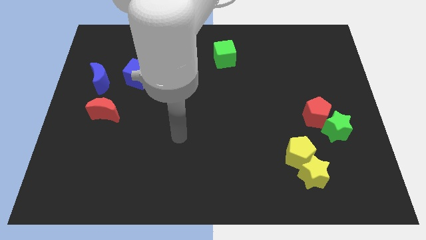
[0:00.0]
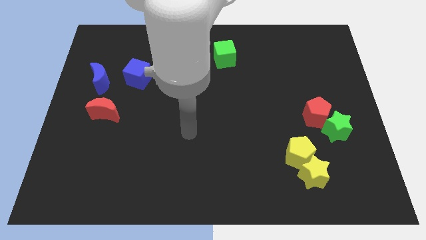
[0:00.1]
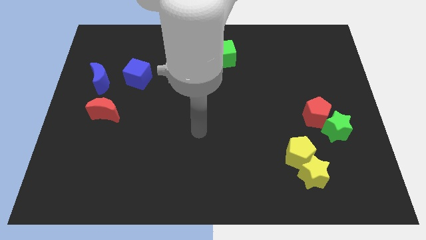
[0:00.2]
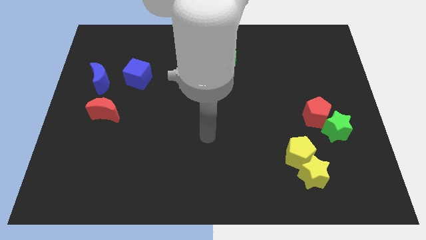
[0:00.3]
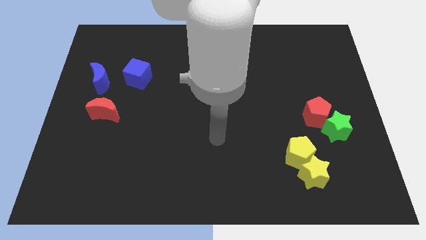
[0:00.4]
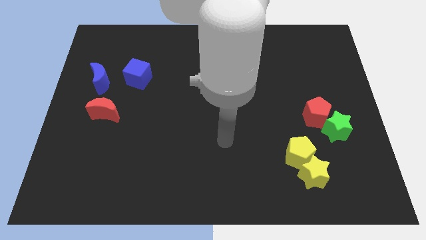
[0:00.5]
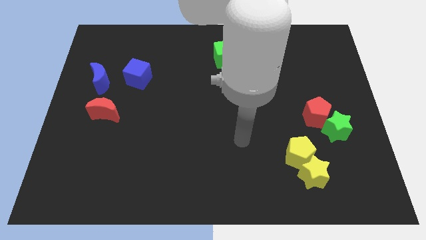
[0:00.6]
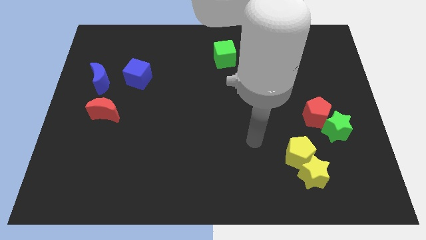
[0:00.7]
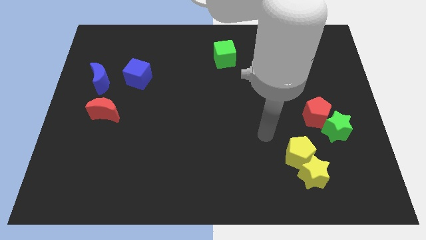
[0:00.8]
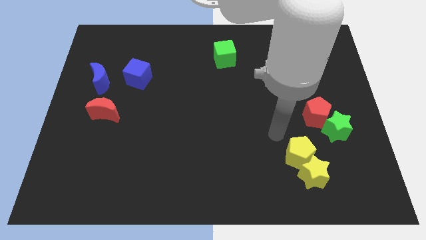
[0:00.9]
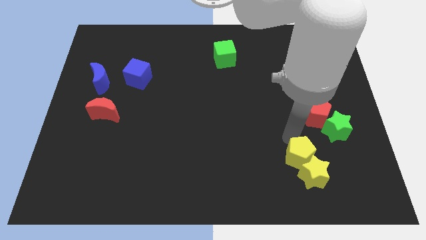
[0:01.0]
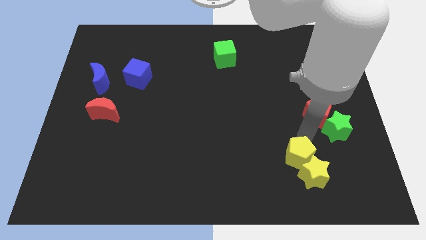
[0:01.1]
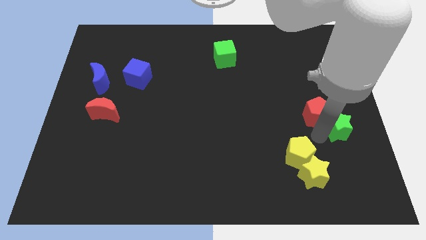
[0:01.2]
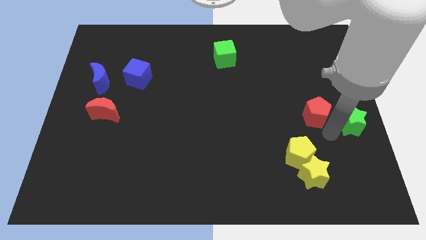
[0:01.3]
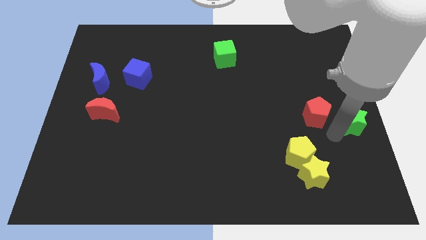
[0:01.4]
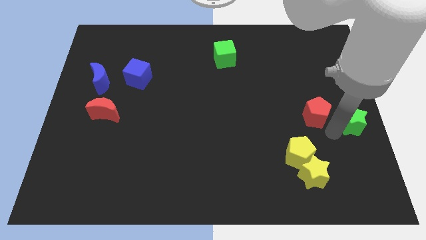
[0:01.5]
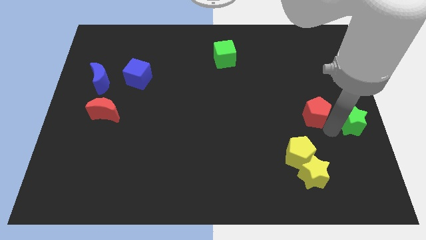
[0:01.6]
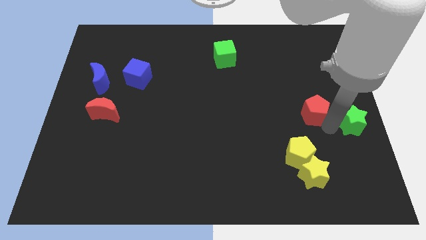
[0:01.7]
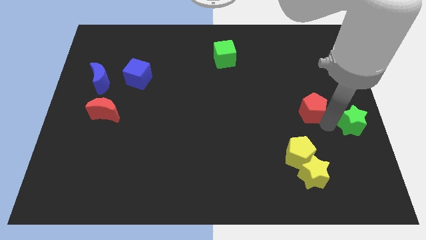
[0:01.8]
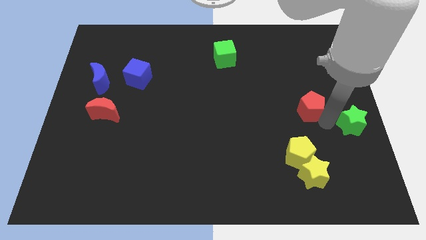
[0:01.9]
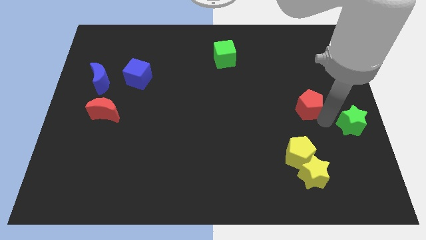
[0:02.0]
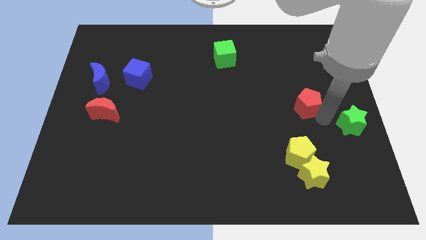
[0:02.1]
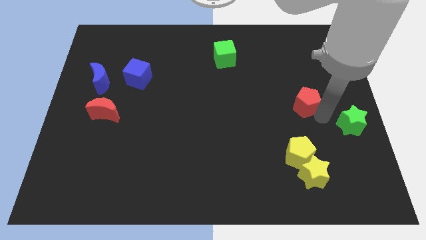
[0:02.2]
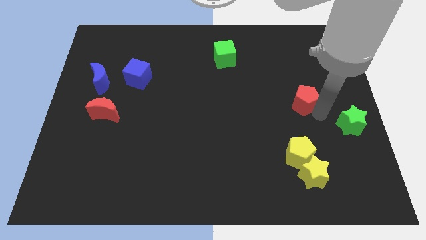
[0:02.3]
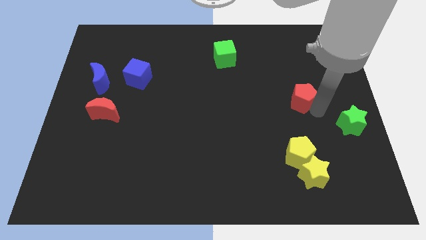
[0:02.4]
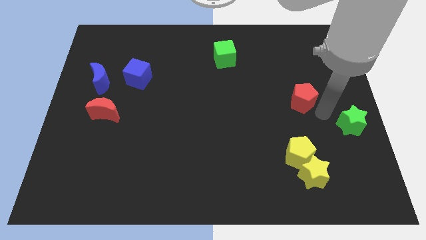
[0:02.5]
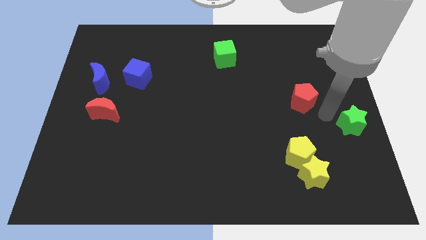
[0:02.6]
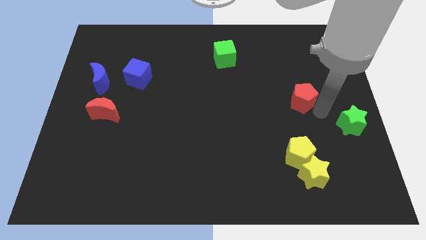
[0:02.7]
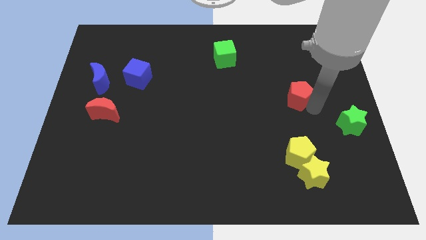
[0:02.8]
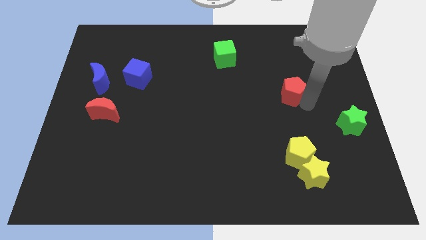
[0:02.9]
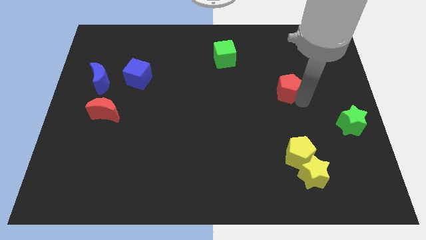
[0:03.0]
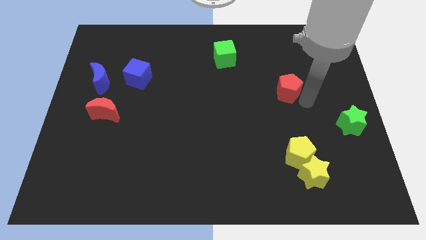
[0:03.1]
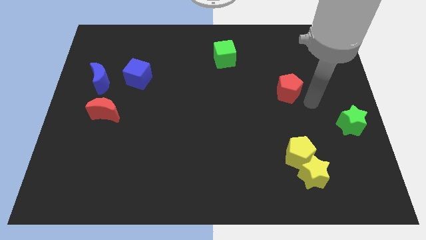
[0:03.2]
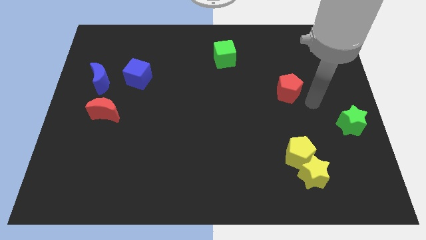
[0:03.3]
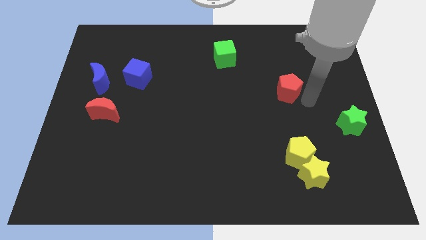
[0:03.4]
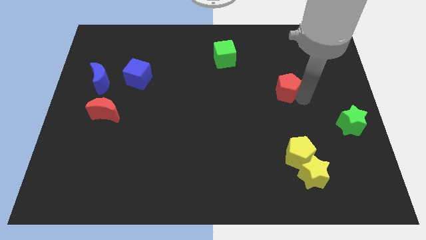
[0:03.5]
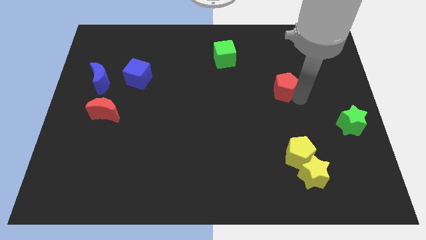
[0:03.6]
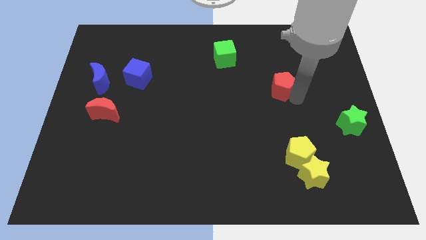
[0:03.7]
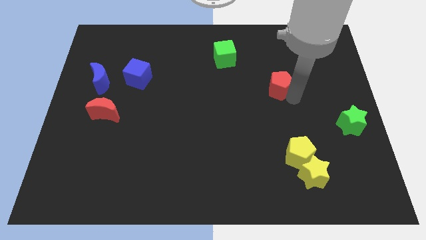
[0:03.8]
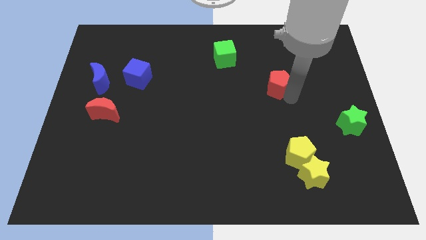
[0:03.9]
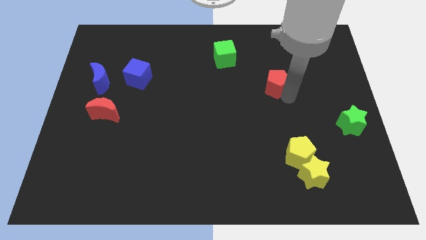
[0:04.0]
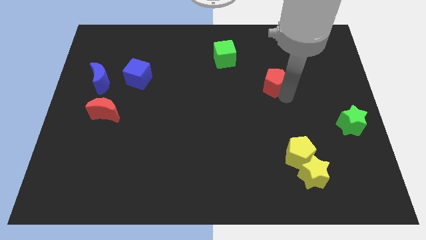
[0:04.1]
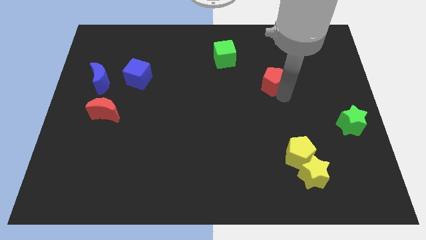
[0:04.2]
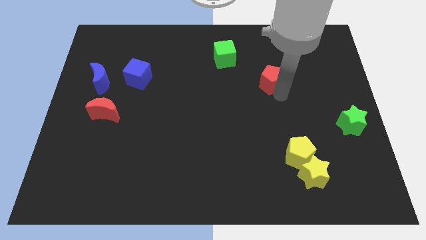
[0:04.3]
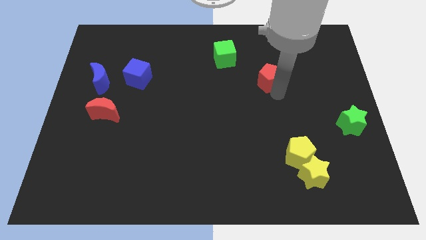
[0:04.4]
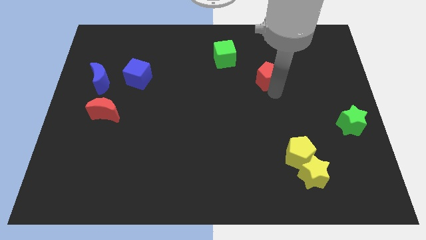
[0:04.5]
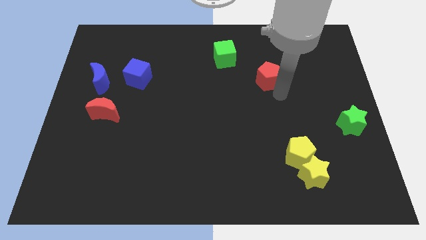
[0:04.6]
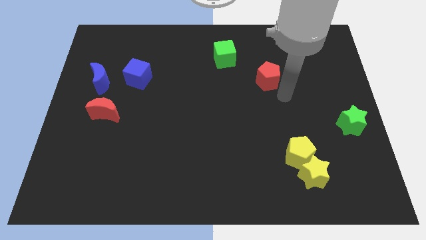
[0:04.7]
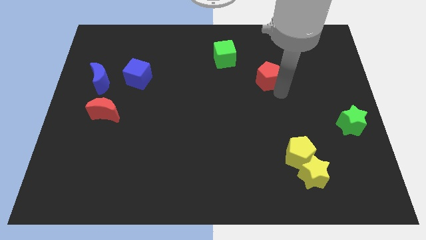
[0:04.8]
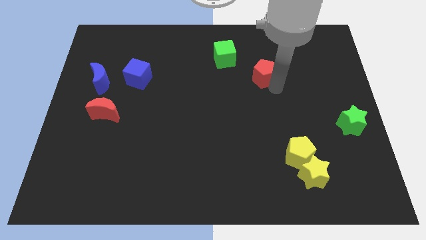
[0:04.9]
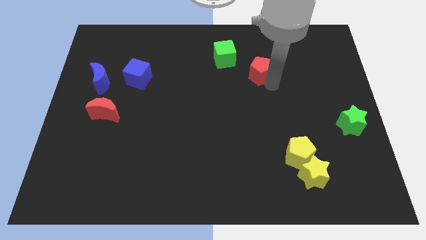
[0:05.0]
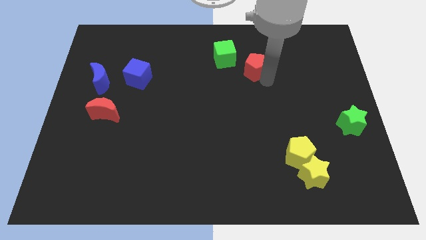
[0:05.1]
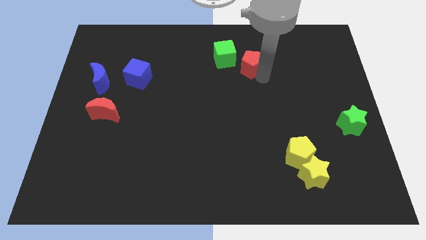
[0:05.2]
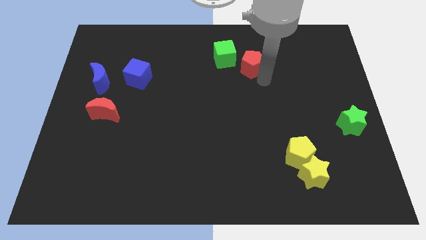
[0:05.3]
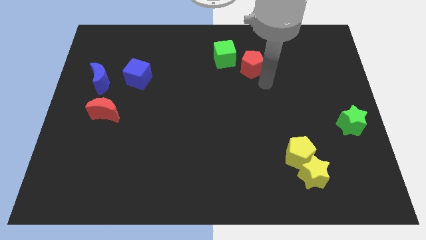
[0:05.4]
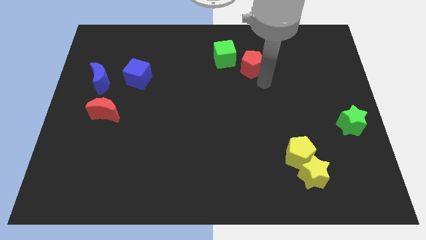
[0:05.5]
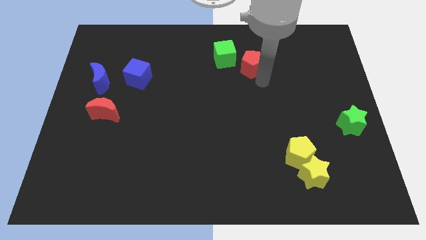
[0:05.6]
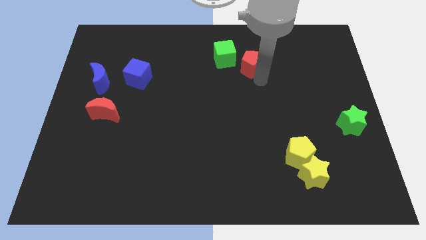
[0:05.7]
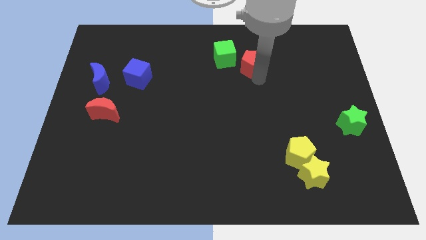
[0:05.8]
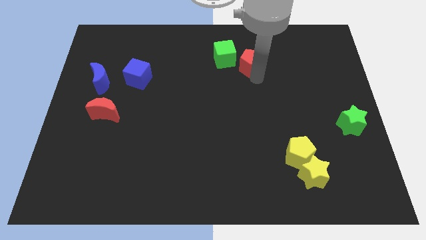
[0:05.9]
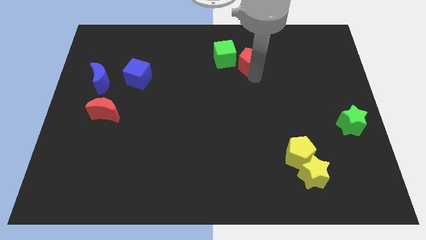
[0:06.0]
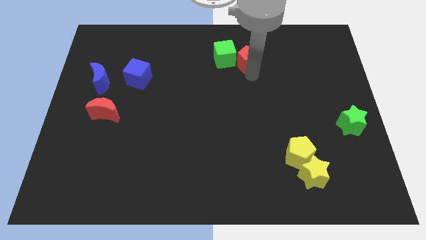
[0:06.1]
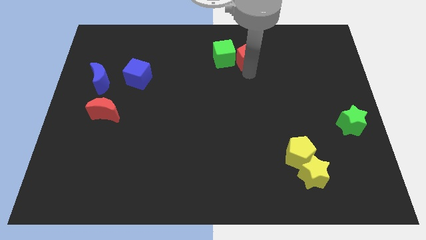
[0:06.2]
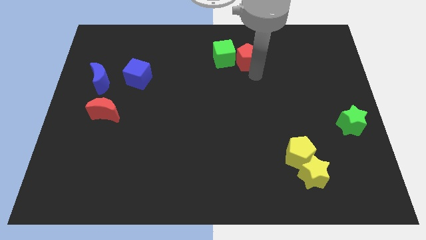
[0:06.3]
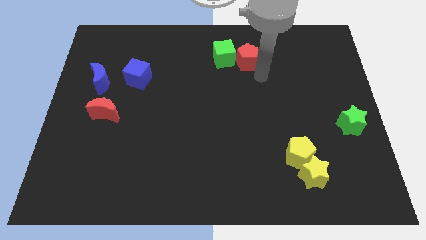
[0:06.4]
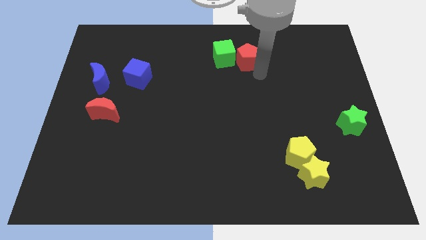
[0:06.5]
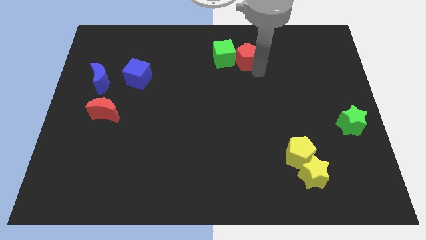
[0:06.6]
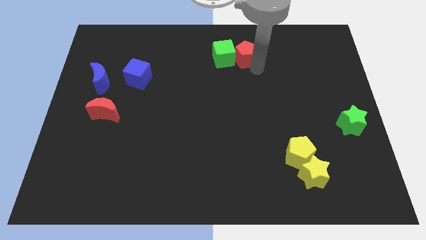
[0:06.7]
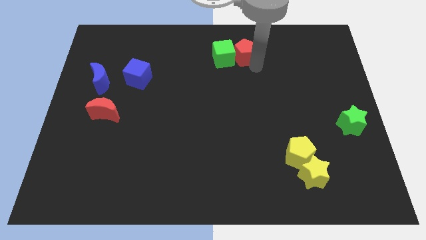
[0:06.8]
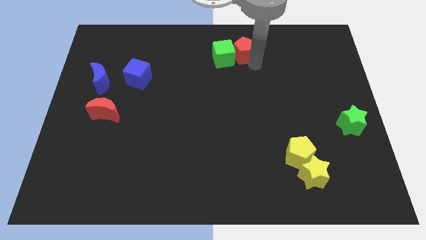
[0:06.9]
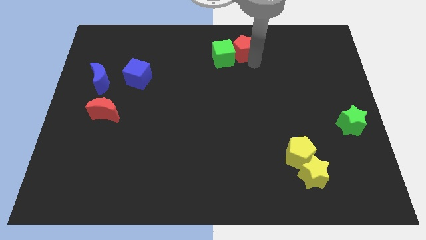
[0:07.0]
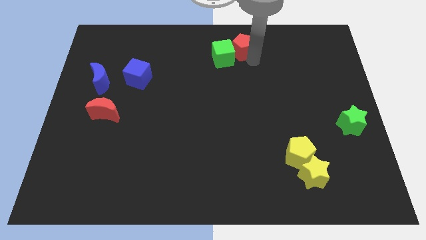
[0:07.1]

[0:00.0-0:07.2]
put the red pentagon to the top
